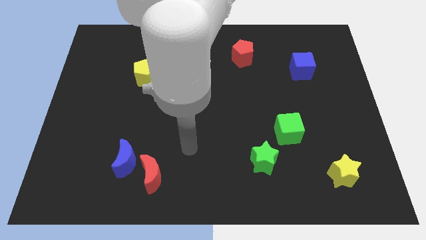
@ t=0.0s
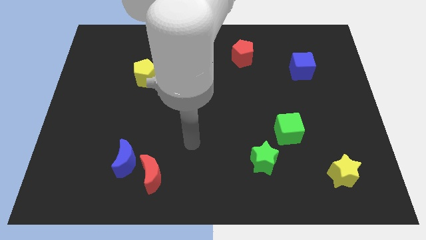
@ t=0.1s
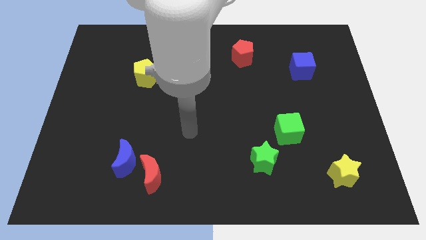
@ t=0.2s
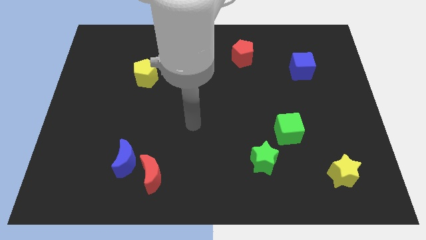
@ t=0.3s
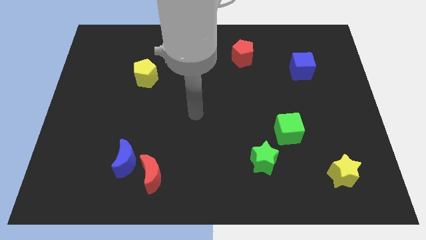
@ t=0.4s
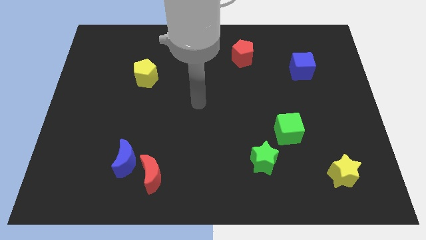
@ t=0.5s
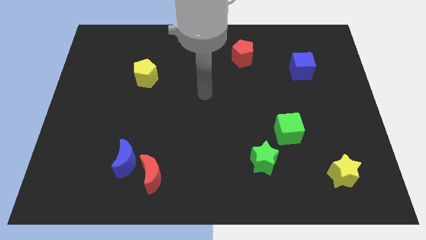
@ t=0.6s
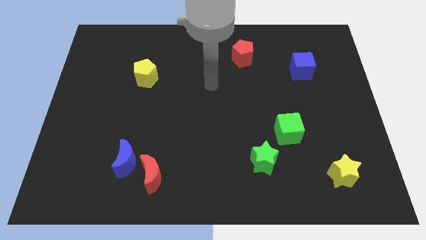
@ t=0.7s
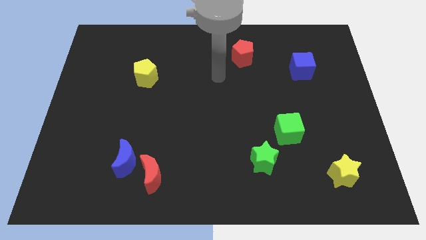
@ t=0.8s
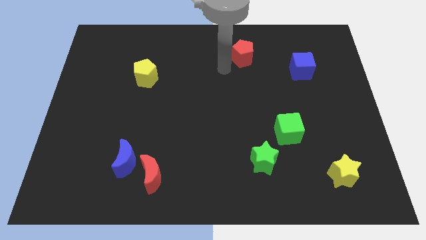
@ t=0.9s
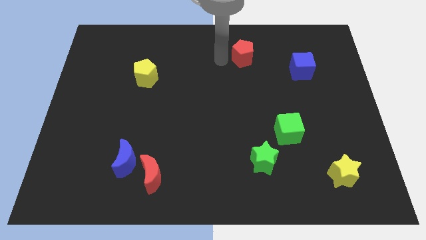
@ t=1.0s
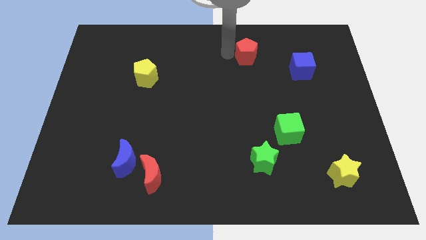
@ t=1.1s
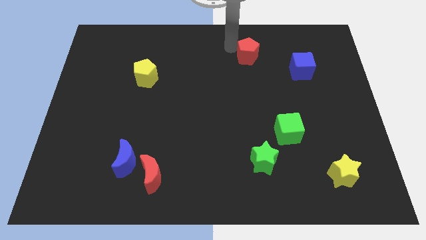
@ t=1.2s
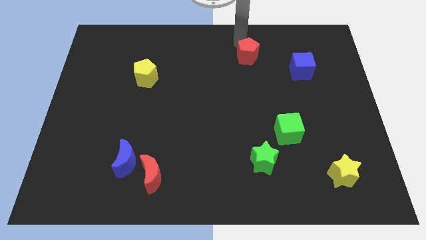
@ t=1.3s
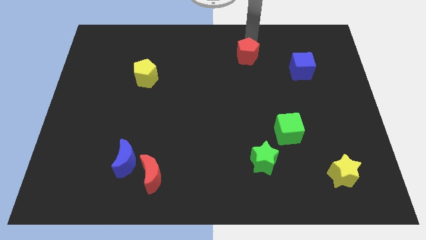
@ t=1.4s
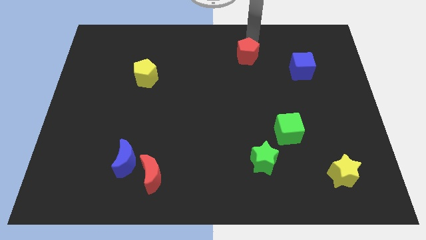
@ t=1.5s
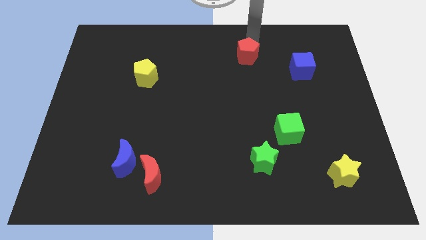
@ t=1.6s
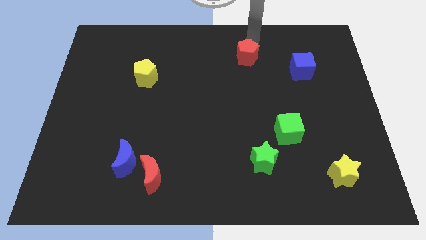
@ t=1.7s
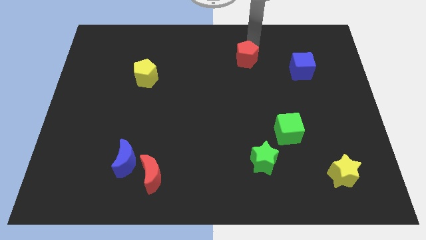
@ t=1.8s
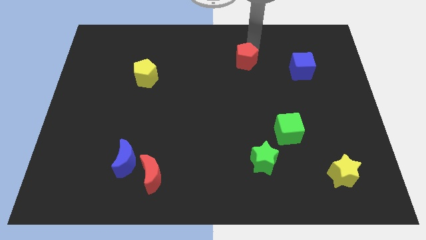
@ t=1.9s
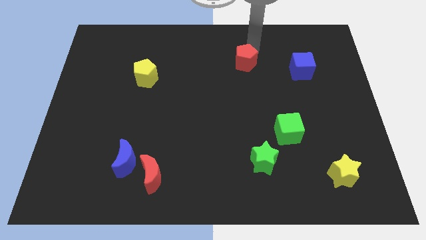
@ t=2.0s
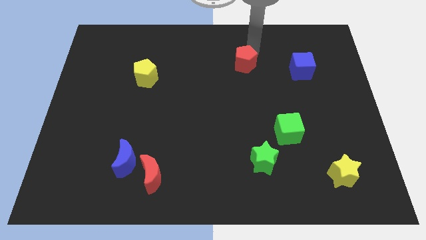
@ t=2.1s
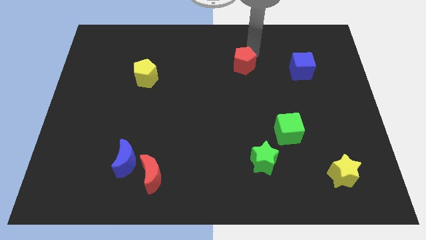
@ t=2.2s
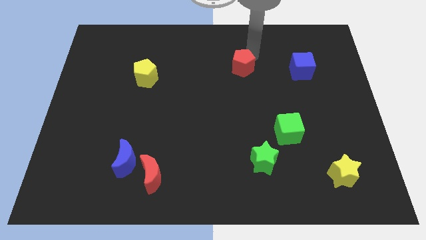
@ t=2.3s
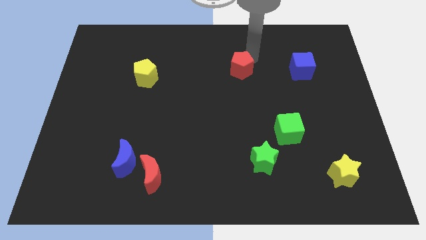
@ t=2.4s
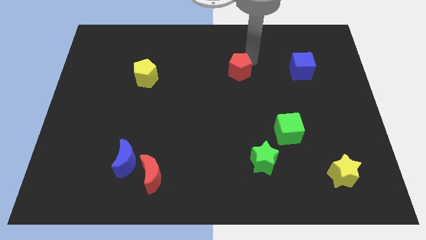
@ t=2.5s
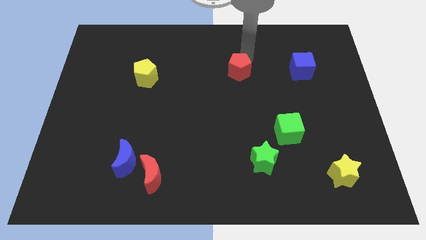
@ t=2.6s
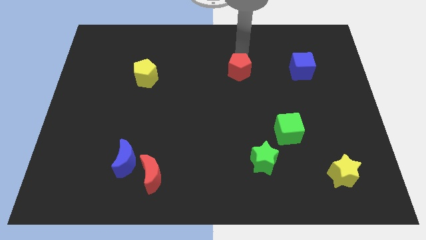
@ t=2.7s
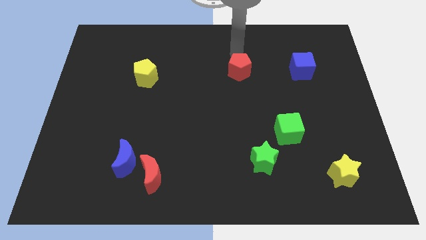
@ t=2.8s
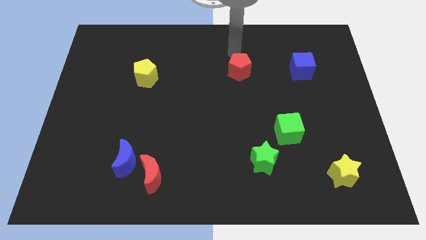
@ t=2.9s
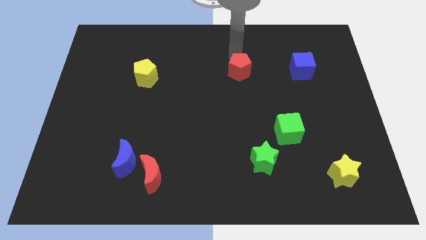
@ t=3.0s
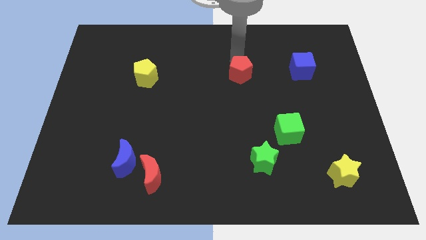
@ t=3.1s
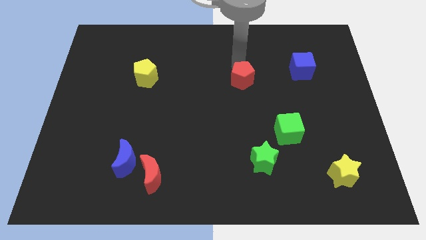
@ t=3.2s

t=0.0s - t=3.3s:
push the red pentagon a bit downwards

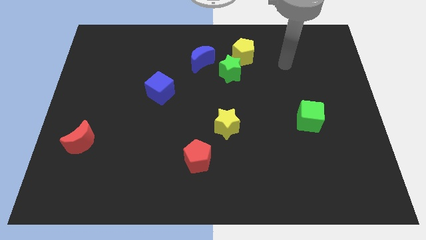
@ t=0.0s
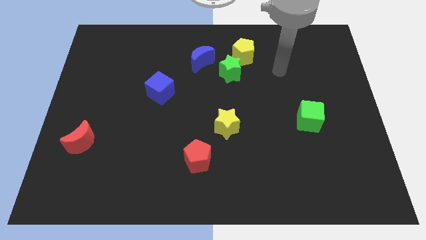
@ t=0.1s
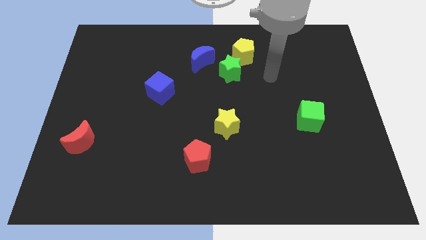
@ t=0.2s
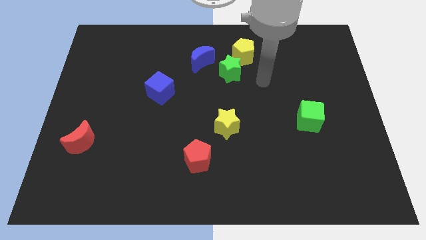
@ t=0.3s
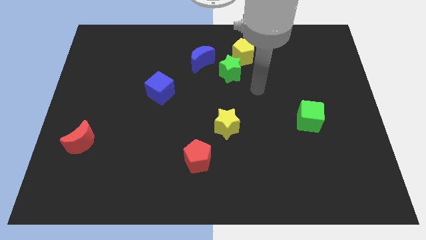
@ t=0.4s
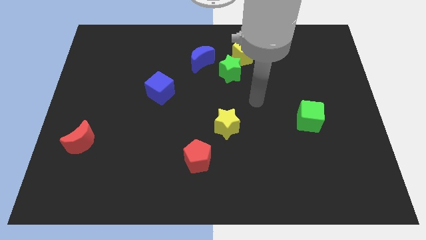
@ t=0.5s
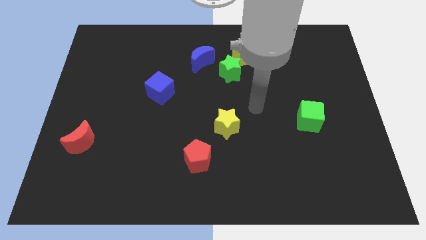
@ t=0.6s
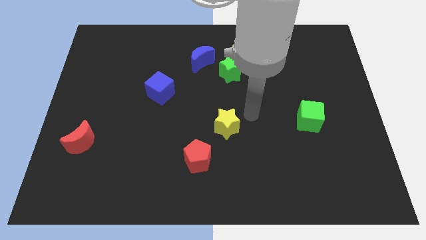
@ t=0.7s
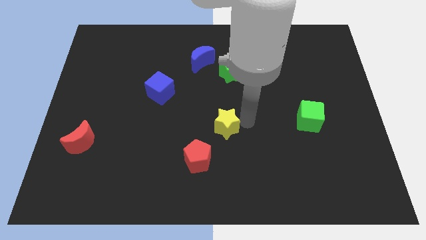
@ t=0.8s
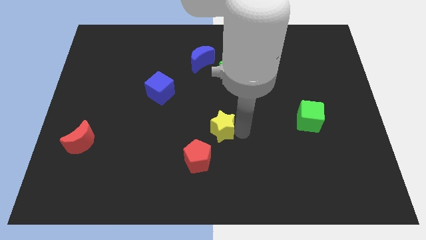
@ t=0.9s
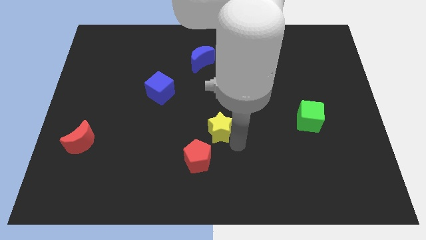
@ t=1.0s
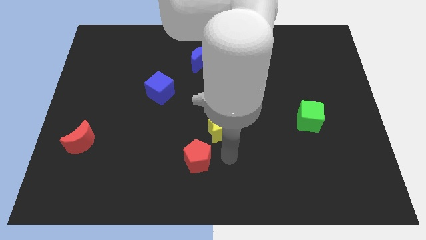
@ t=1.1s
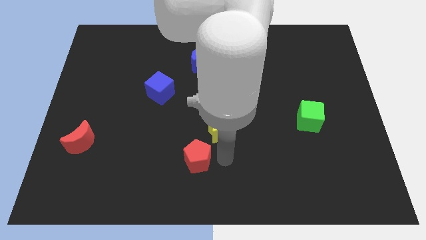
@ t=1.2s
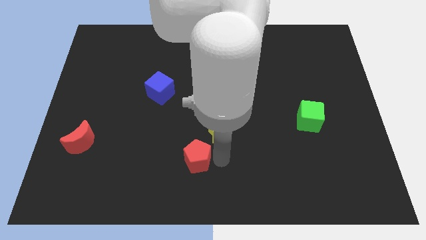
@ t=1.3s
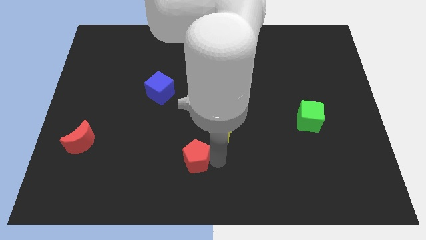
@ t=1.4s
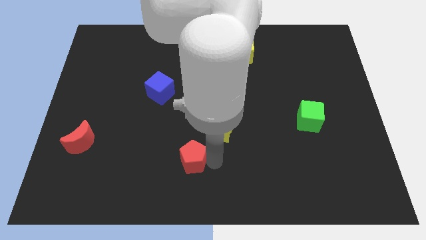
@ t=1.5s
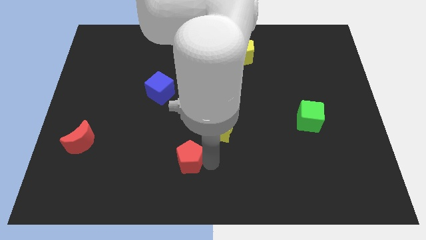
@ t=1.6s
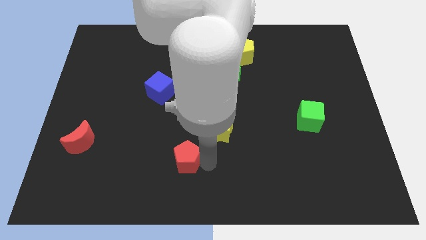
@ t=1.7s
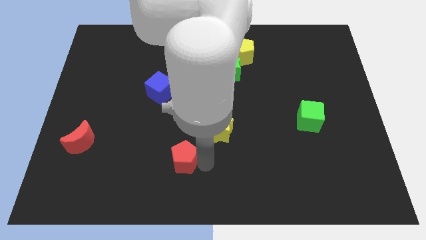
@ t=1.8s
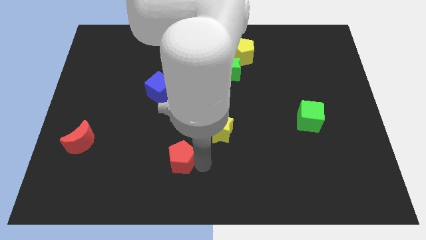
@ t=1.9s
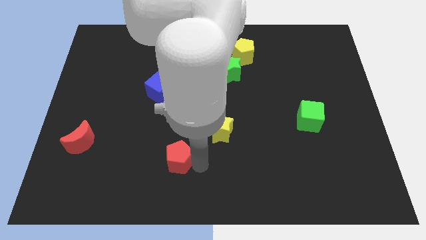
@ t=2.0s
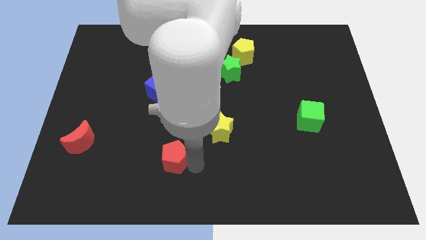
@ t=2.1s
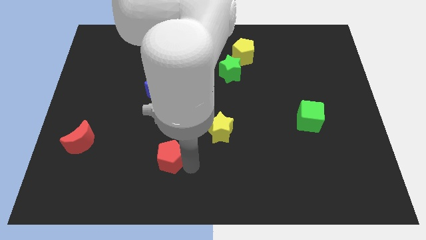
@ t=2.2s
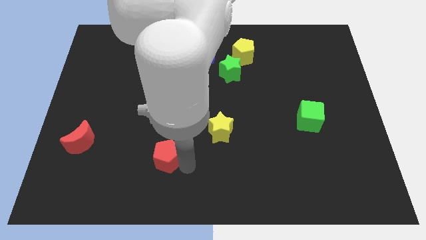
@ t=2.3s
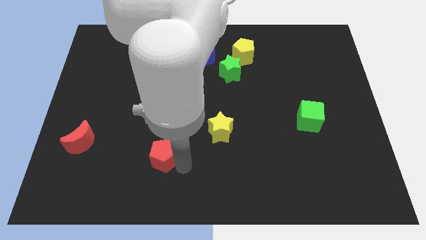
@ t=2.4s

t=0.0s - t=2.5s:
slide the red pentagon a bit left

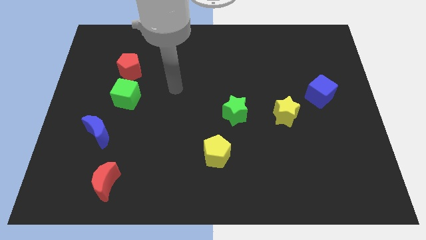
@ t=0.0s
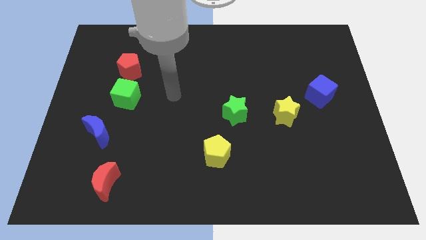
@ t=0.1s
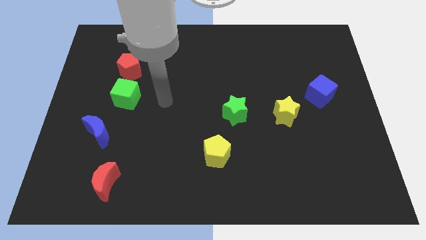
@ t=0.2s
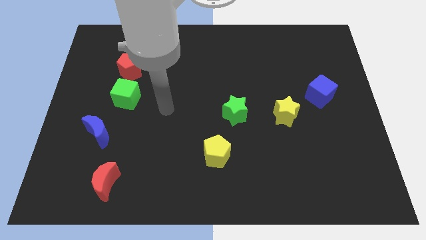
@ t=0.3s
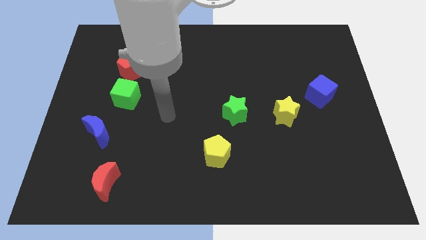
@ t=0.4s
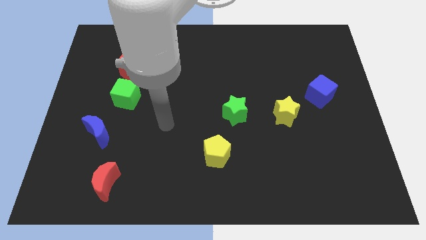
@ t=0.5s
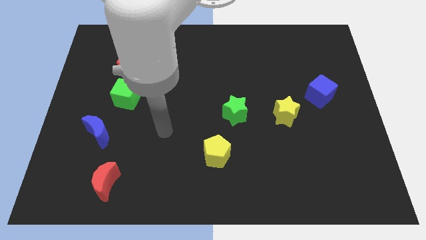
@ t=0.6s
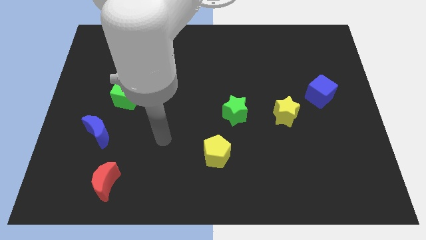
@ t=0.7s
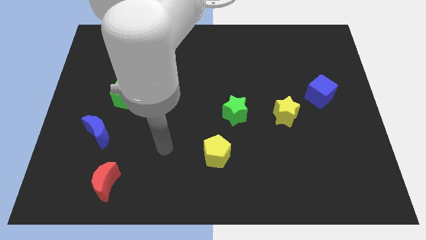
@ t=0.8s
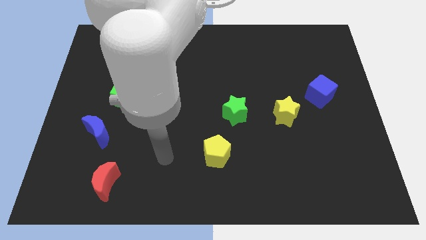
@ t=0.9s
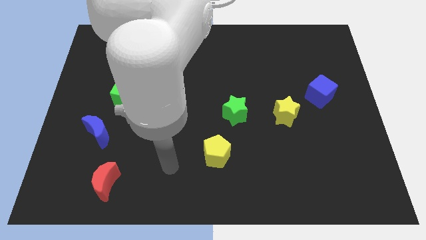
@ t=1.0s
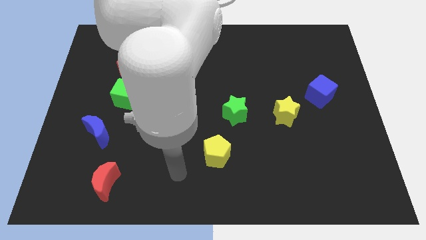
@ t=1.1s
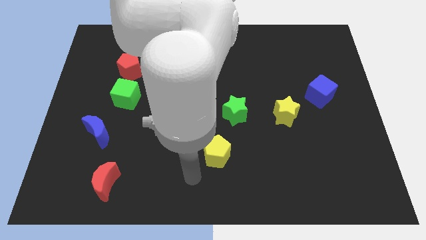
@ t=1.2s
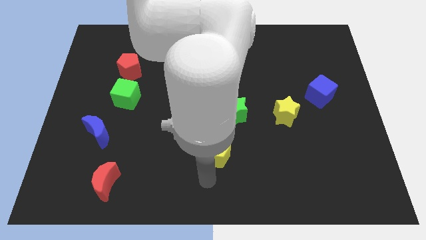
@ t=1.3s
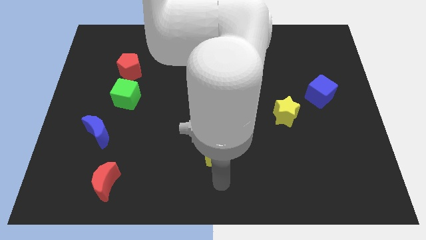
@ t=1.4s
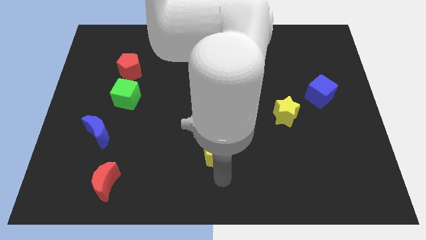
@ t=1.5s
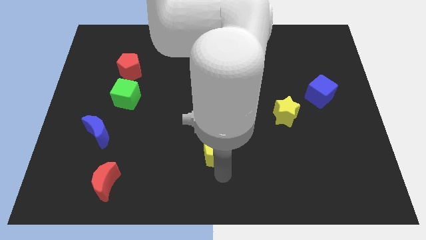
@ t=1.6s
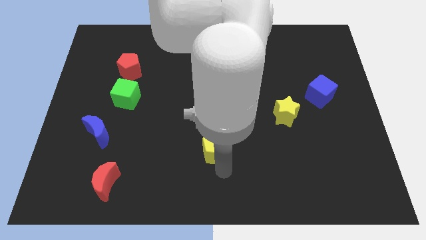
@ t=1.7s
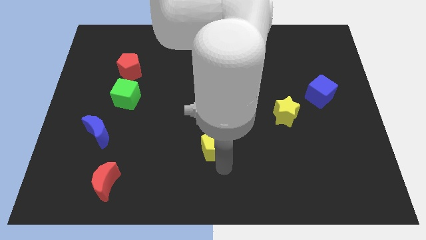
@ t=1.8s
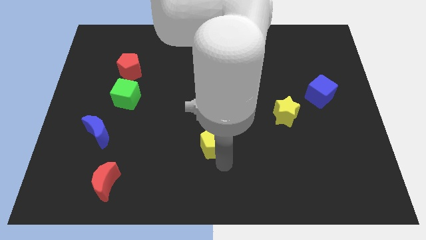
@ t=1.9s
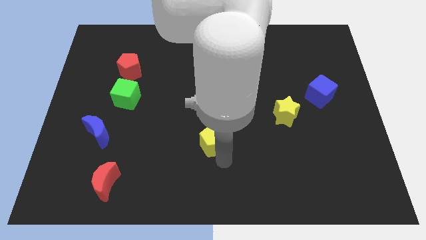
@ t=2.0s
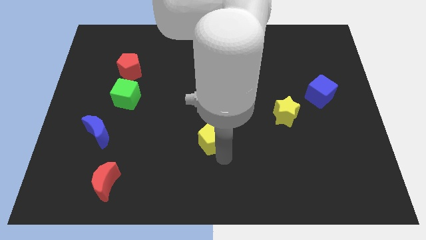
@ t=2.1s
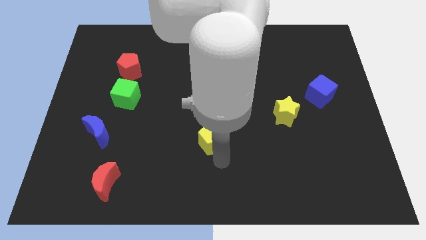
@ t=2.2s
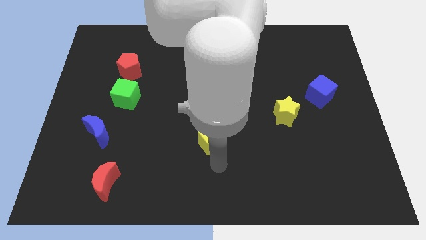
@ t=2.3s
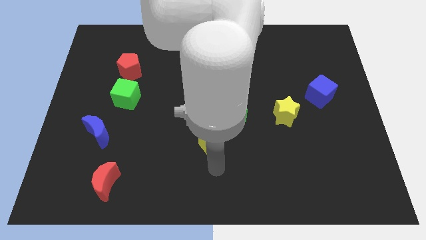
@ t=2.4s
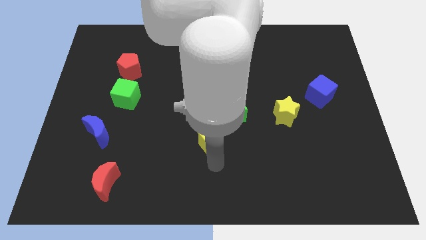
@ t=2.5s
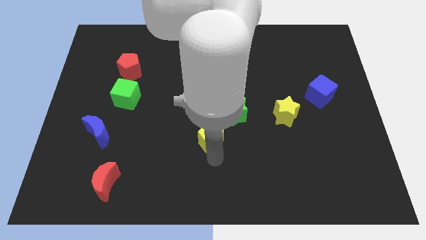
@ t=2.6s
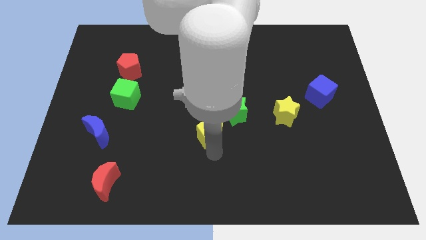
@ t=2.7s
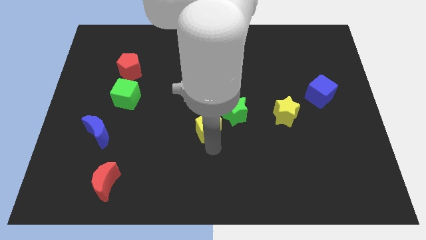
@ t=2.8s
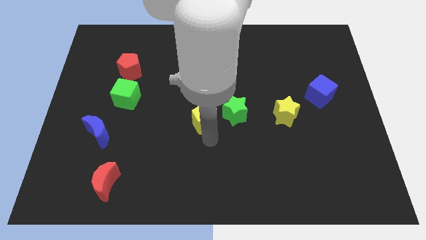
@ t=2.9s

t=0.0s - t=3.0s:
slightly push the yellow pentagon up
